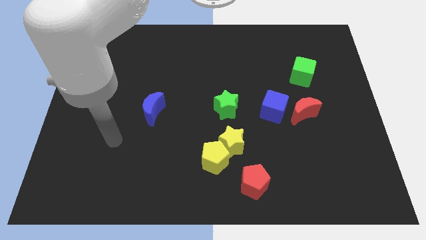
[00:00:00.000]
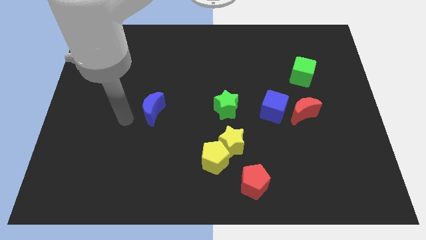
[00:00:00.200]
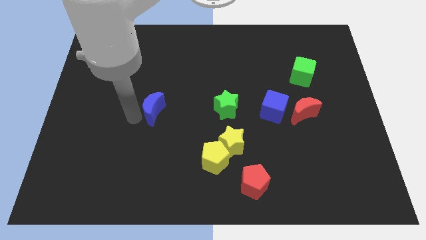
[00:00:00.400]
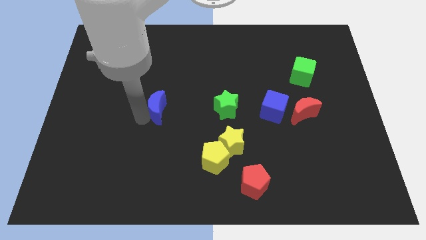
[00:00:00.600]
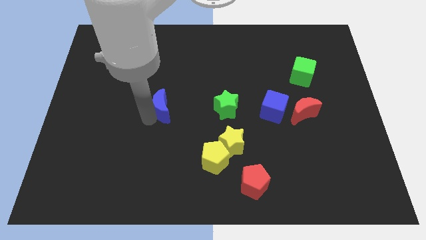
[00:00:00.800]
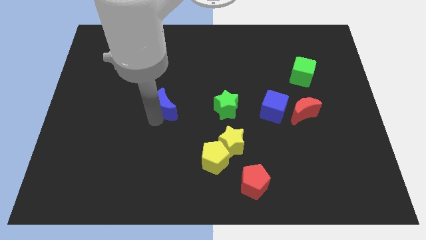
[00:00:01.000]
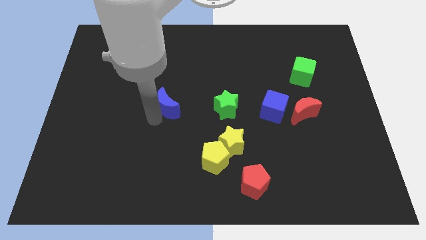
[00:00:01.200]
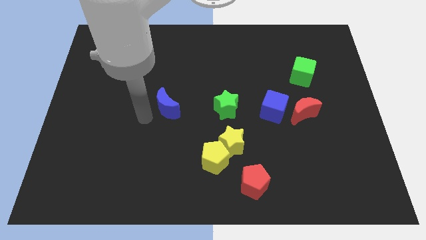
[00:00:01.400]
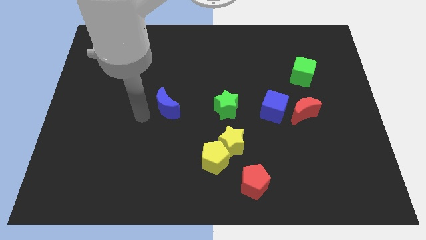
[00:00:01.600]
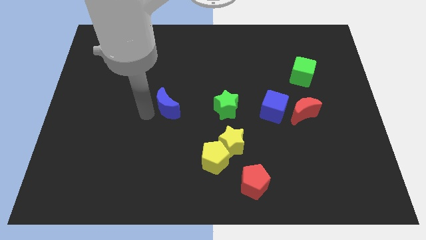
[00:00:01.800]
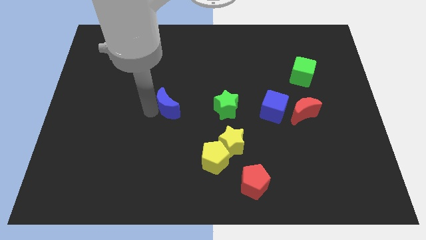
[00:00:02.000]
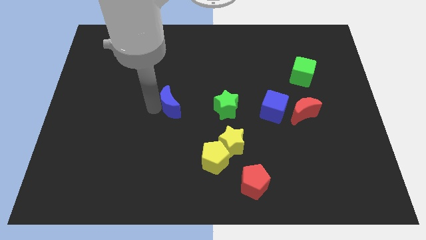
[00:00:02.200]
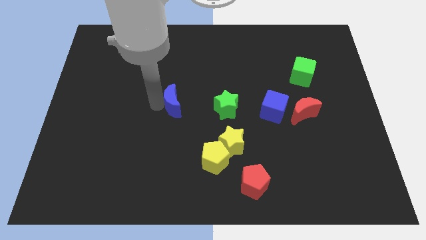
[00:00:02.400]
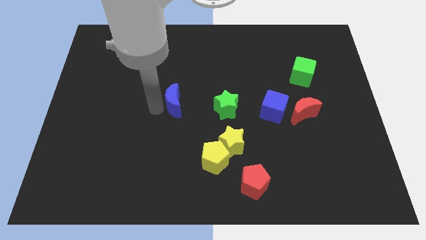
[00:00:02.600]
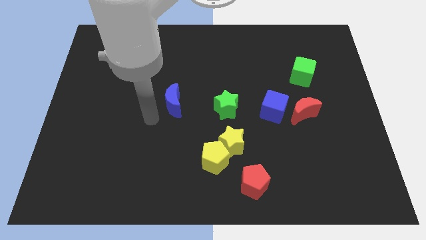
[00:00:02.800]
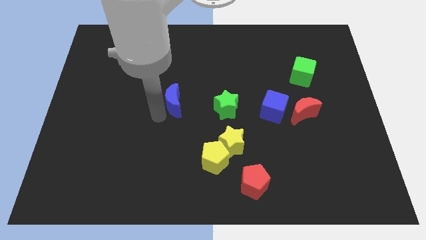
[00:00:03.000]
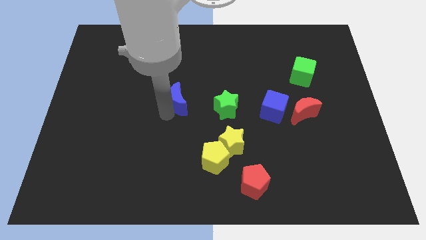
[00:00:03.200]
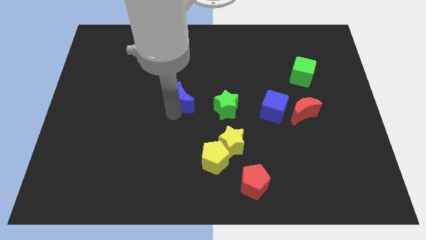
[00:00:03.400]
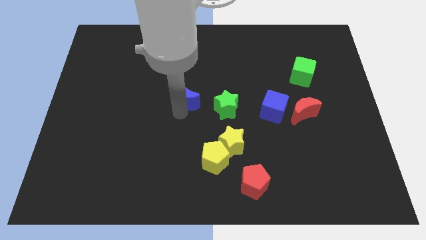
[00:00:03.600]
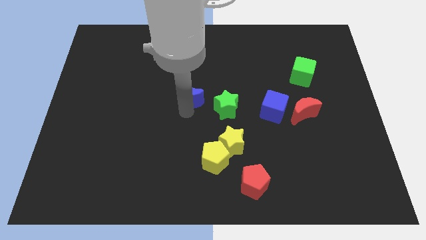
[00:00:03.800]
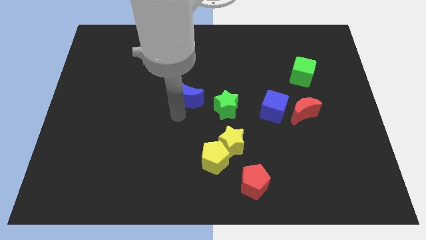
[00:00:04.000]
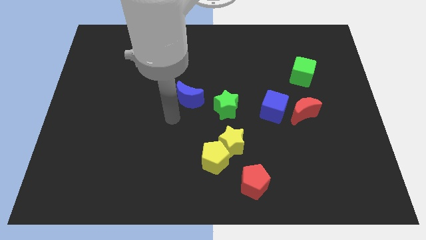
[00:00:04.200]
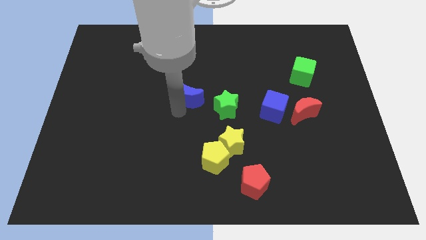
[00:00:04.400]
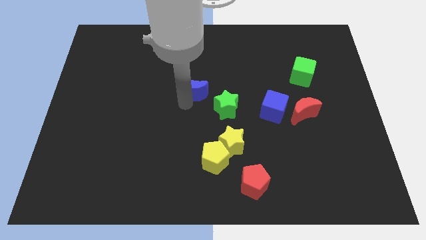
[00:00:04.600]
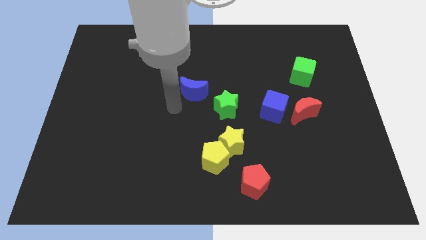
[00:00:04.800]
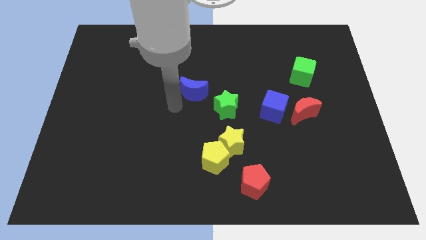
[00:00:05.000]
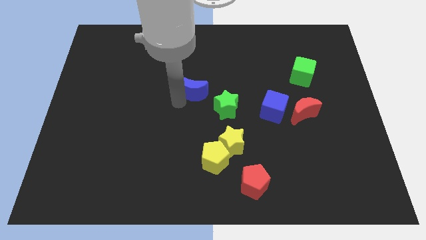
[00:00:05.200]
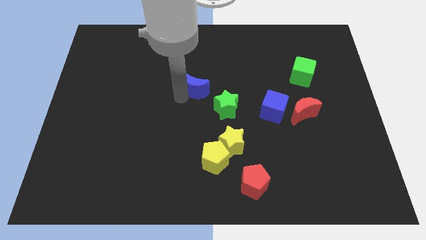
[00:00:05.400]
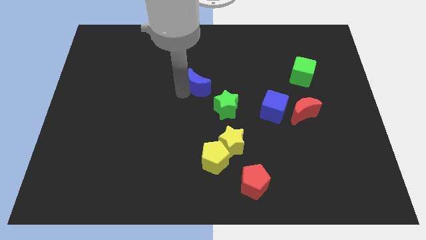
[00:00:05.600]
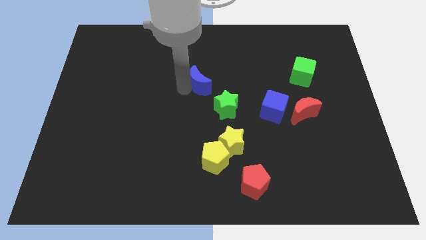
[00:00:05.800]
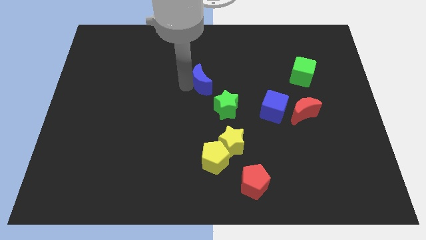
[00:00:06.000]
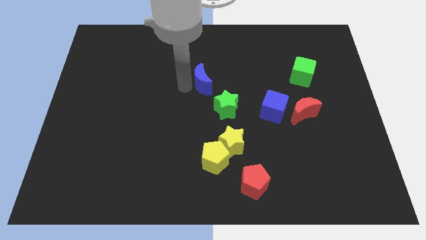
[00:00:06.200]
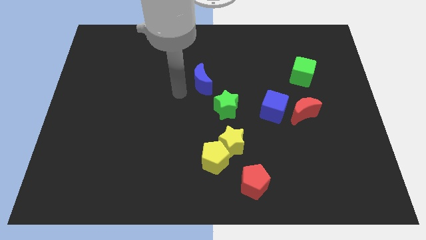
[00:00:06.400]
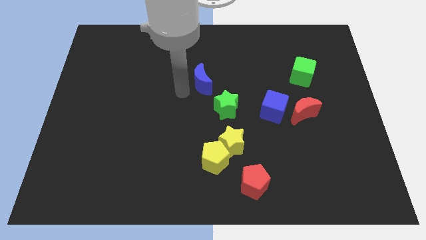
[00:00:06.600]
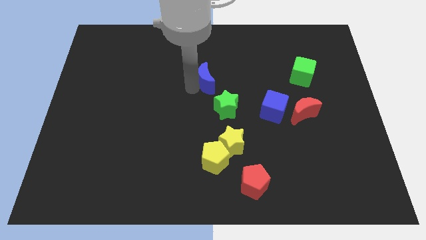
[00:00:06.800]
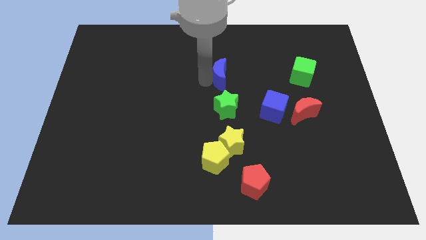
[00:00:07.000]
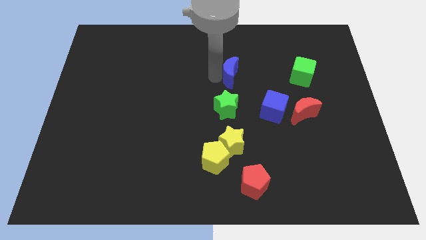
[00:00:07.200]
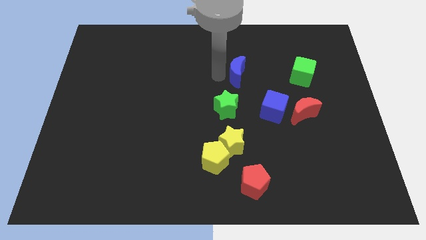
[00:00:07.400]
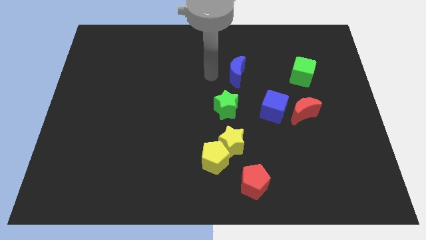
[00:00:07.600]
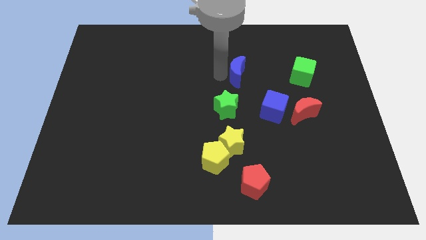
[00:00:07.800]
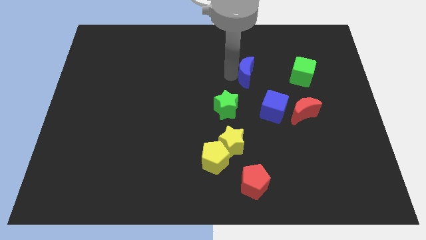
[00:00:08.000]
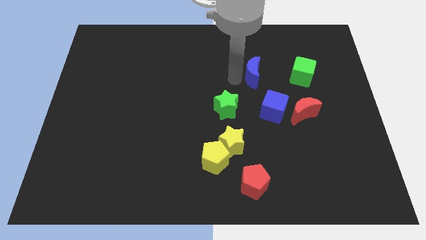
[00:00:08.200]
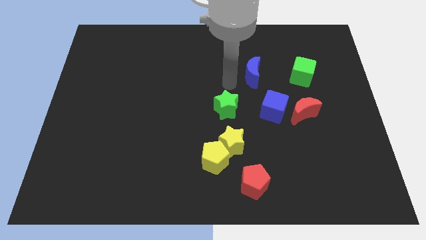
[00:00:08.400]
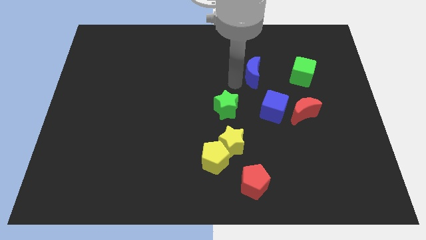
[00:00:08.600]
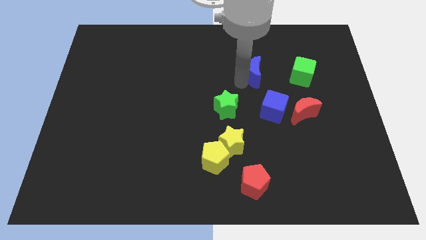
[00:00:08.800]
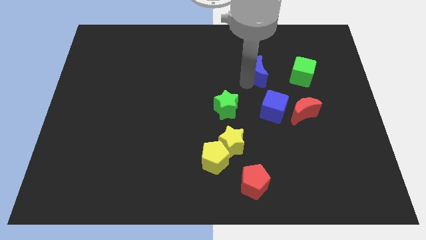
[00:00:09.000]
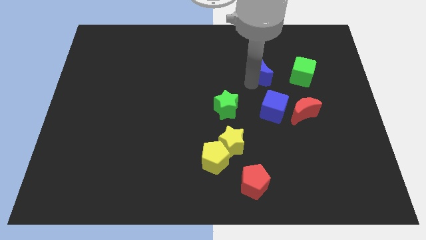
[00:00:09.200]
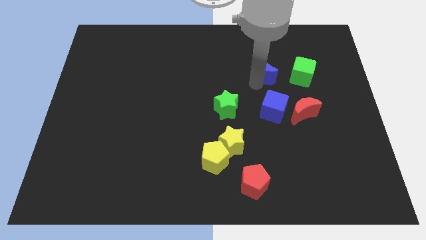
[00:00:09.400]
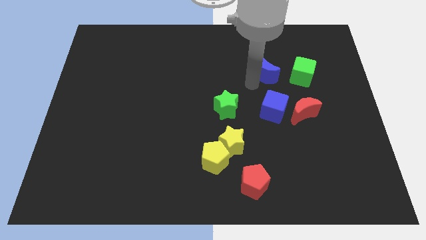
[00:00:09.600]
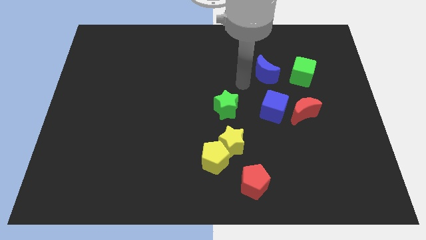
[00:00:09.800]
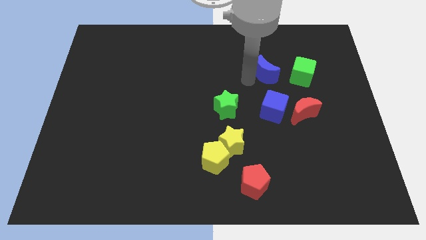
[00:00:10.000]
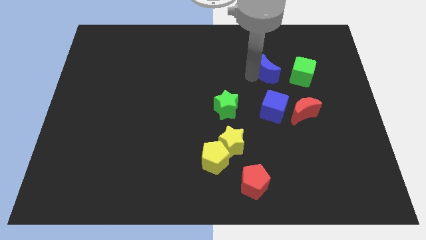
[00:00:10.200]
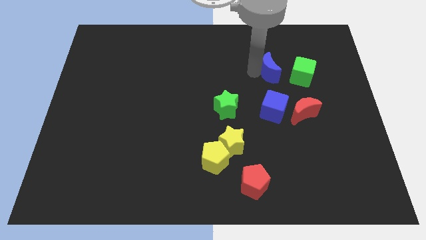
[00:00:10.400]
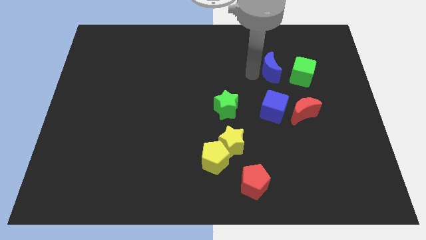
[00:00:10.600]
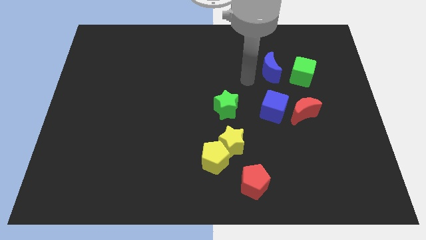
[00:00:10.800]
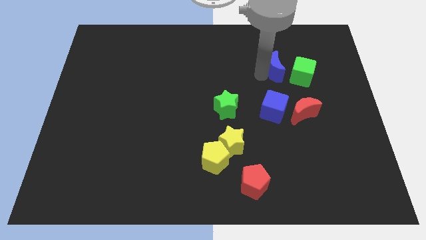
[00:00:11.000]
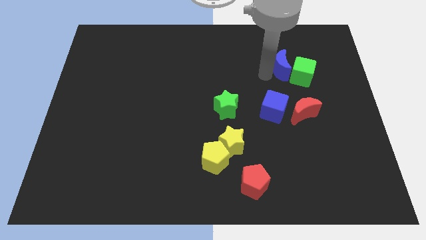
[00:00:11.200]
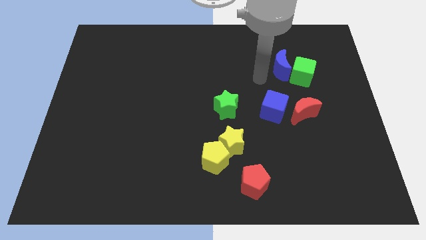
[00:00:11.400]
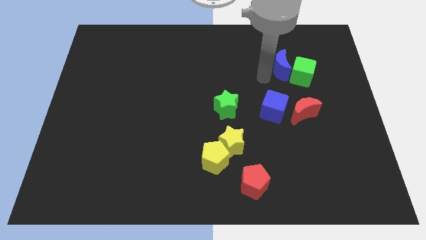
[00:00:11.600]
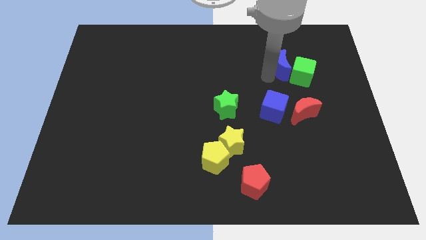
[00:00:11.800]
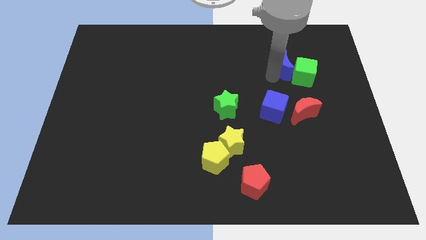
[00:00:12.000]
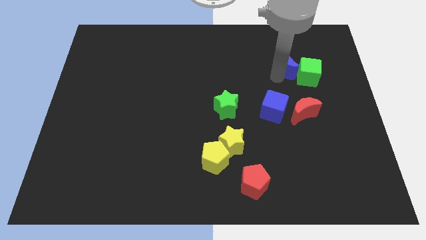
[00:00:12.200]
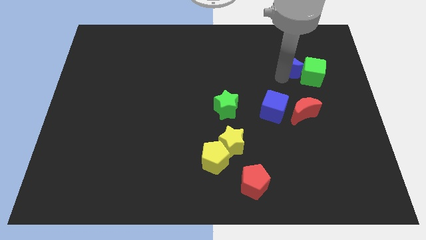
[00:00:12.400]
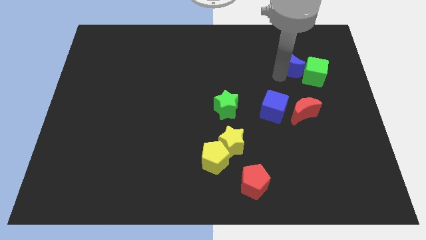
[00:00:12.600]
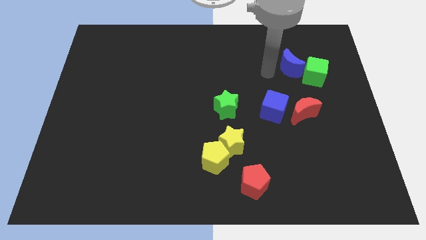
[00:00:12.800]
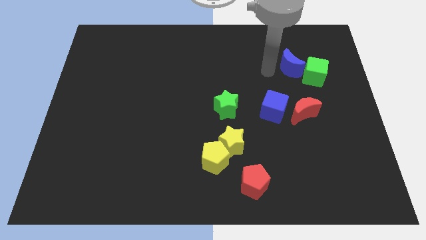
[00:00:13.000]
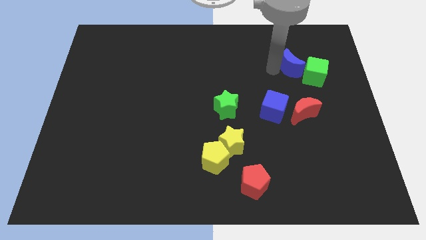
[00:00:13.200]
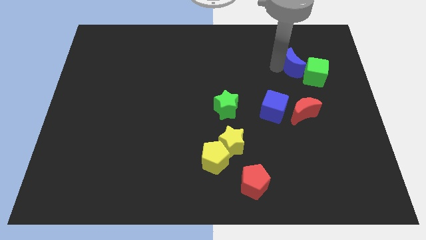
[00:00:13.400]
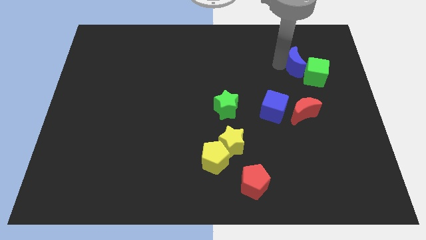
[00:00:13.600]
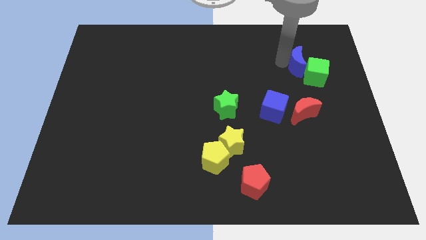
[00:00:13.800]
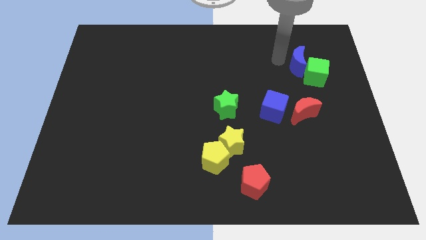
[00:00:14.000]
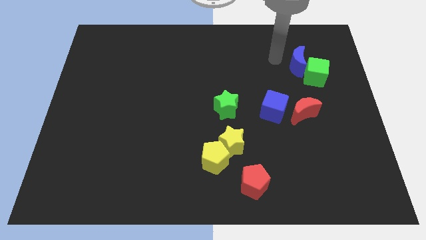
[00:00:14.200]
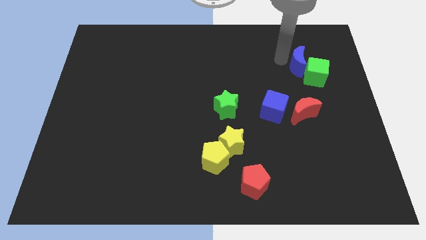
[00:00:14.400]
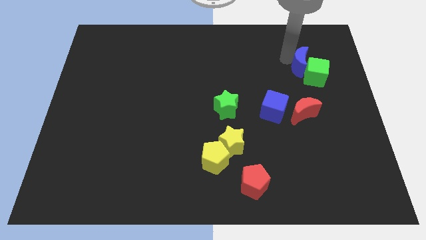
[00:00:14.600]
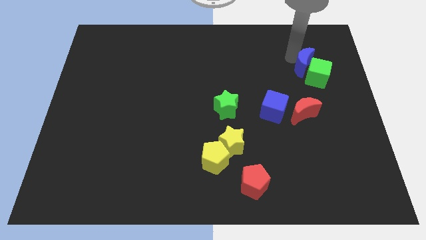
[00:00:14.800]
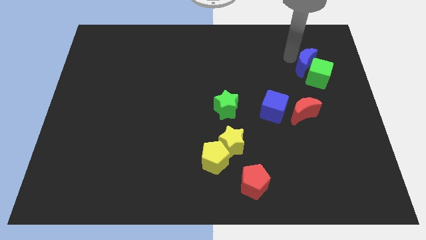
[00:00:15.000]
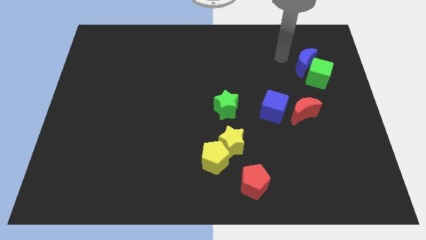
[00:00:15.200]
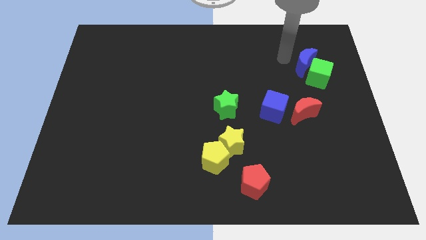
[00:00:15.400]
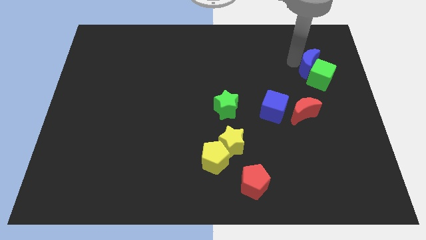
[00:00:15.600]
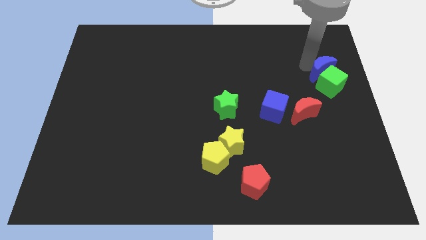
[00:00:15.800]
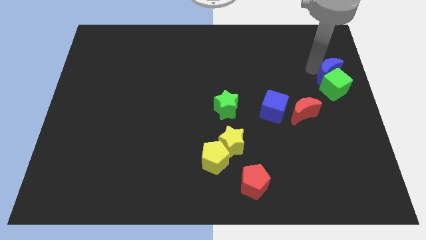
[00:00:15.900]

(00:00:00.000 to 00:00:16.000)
move the blue moon to the right side of the board
